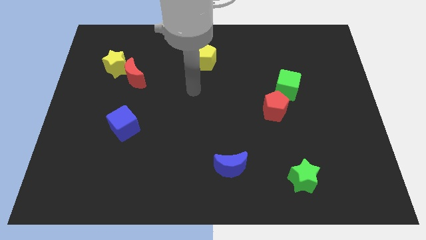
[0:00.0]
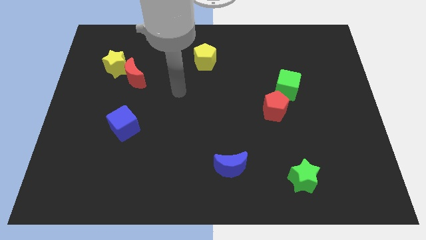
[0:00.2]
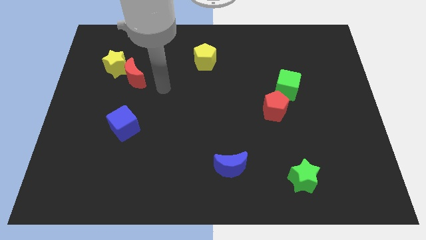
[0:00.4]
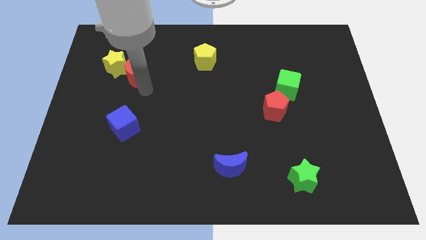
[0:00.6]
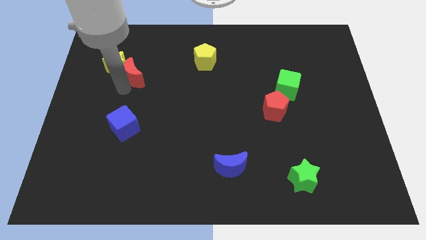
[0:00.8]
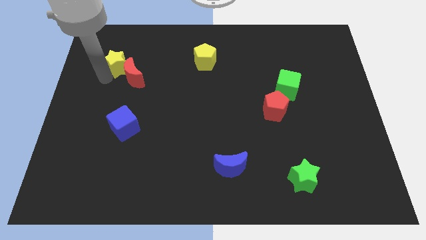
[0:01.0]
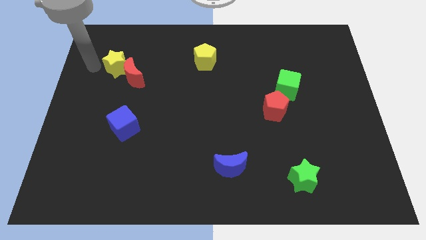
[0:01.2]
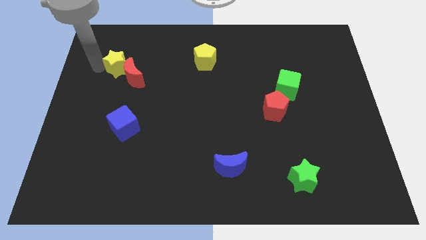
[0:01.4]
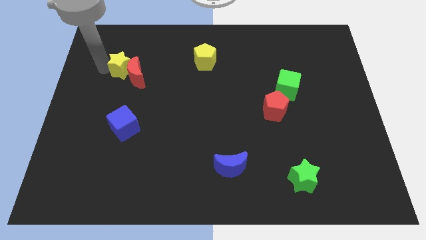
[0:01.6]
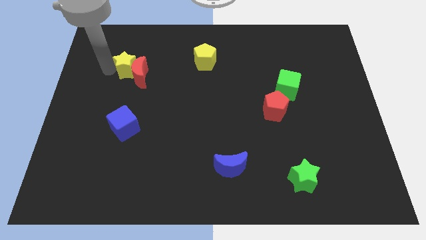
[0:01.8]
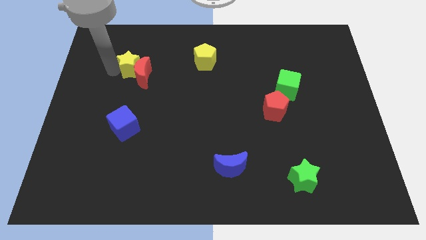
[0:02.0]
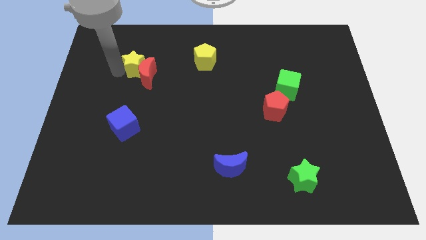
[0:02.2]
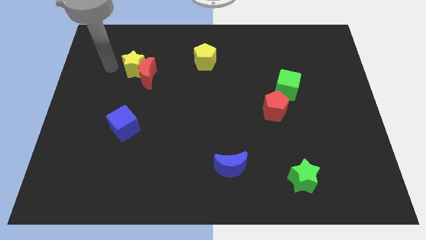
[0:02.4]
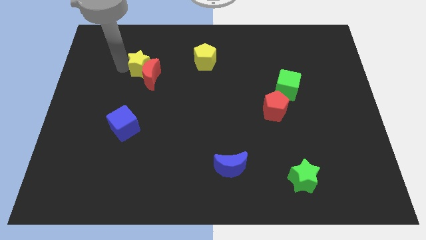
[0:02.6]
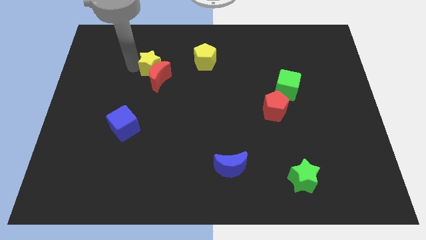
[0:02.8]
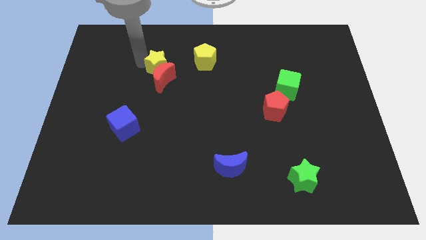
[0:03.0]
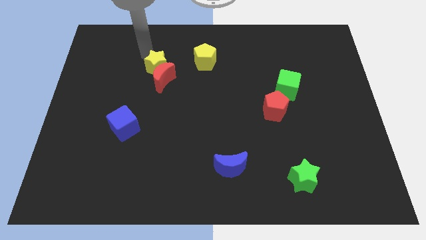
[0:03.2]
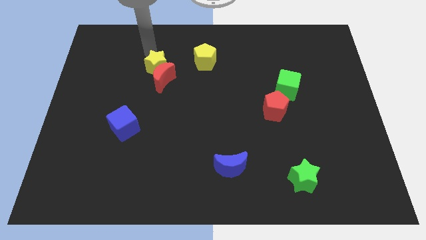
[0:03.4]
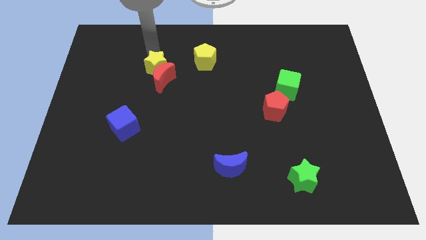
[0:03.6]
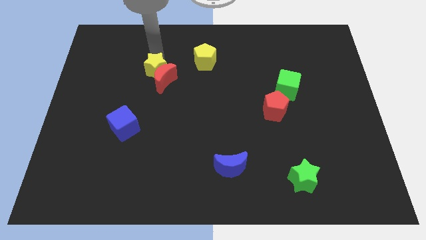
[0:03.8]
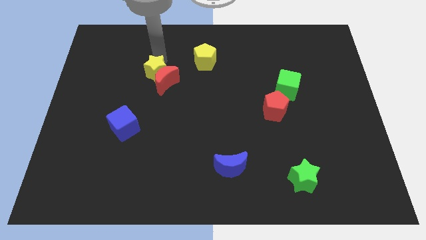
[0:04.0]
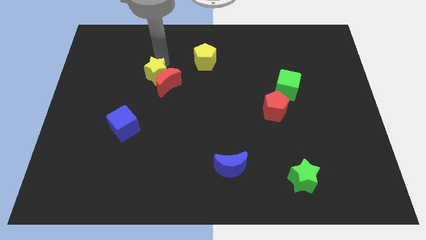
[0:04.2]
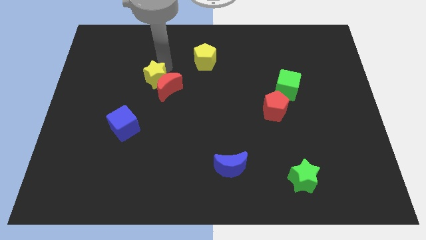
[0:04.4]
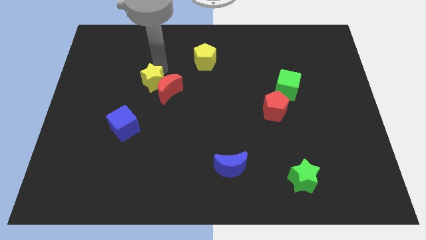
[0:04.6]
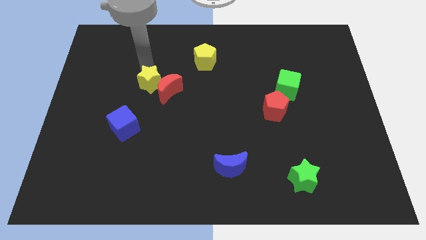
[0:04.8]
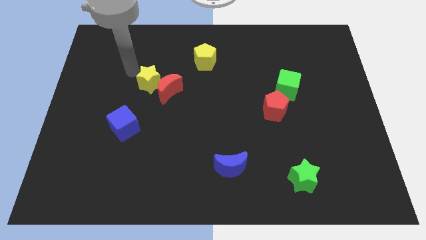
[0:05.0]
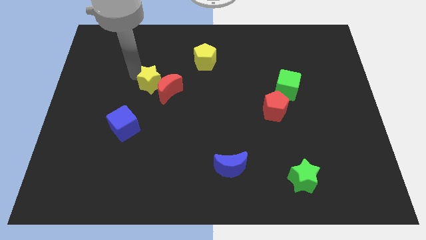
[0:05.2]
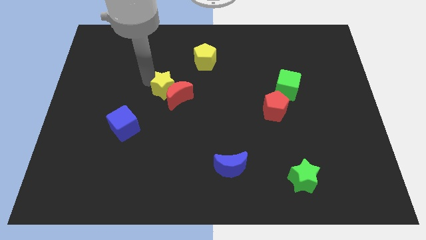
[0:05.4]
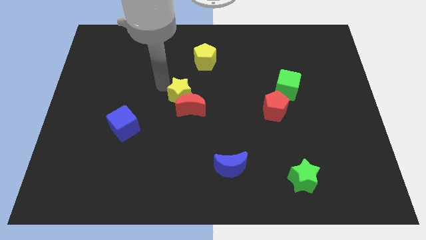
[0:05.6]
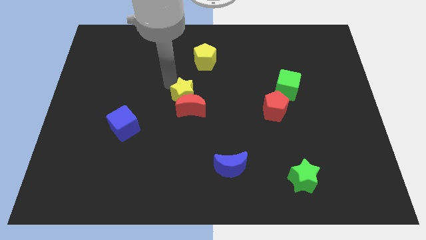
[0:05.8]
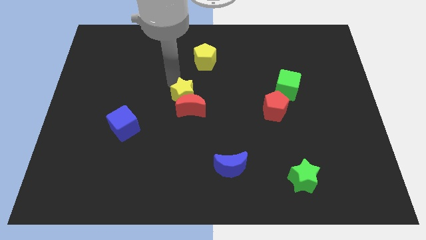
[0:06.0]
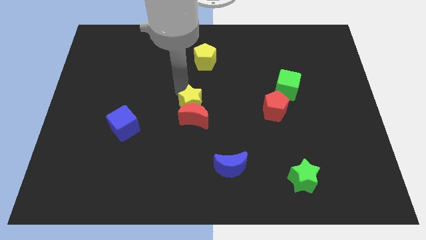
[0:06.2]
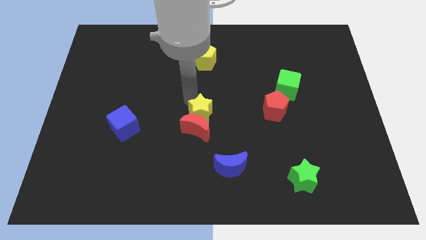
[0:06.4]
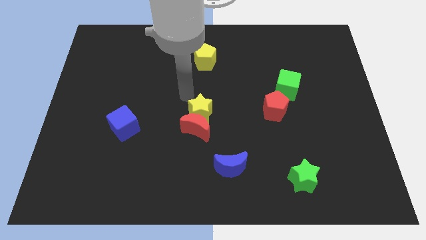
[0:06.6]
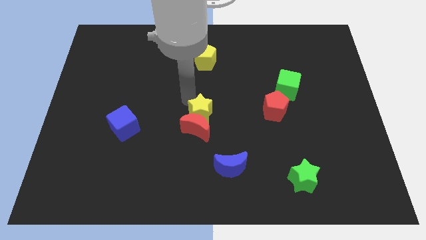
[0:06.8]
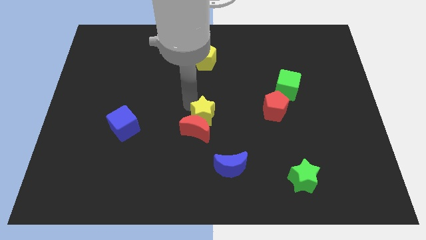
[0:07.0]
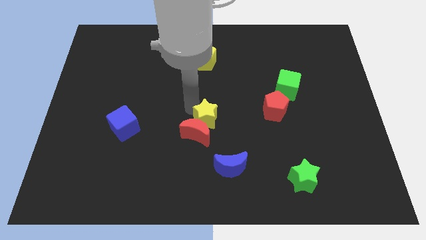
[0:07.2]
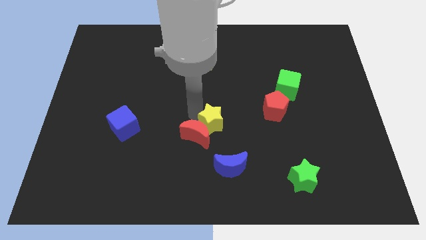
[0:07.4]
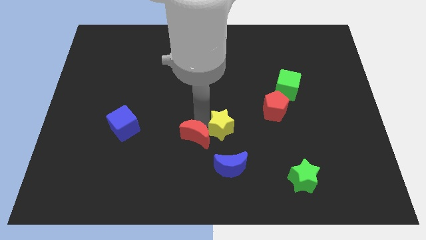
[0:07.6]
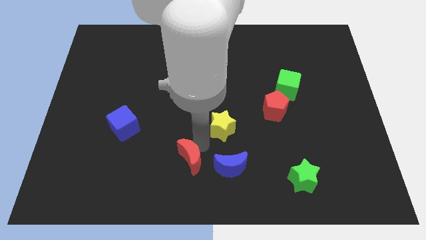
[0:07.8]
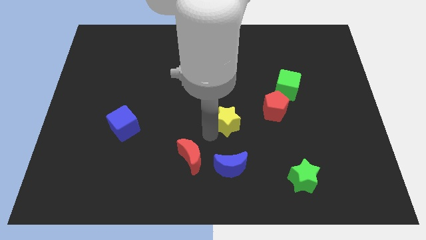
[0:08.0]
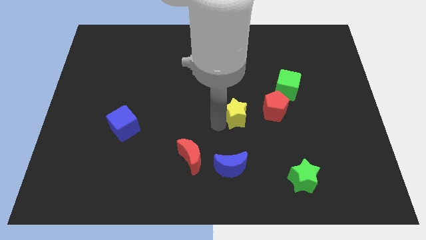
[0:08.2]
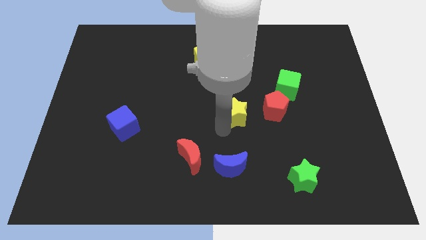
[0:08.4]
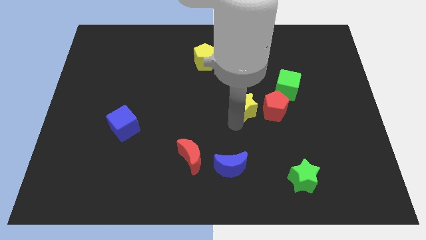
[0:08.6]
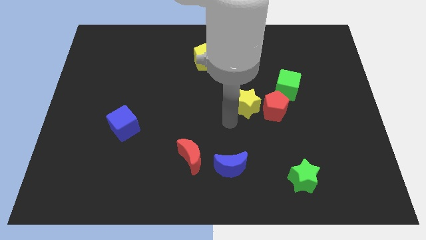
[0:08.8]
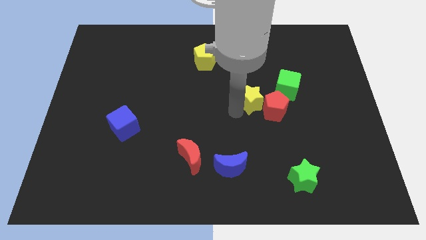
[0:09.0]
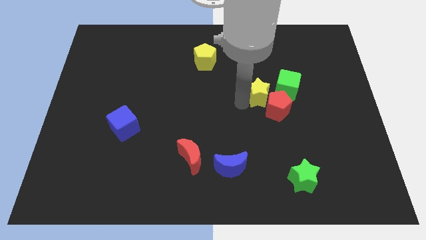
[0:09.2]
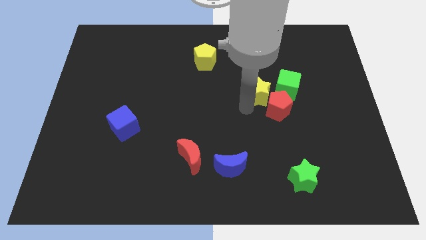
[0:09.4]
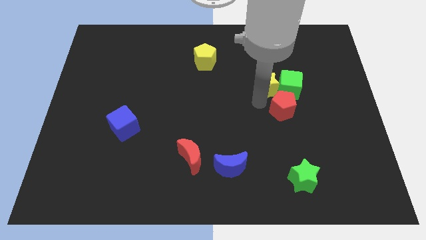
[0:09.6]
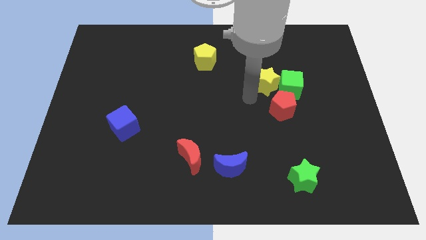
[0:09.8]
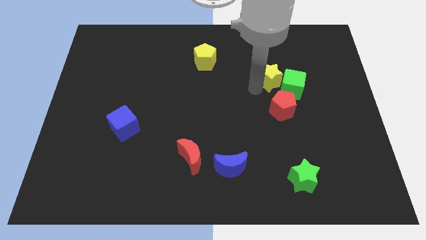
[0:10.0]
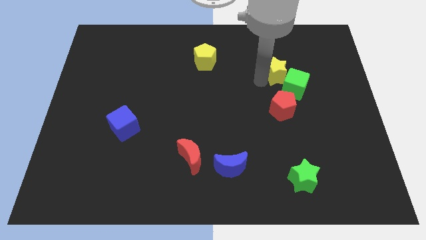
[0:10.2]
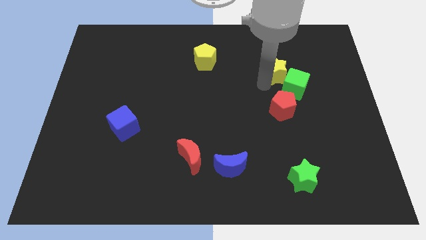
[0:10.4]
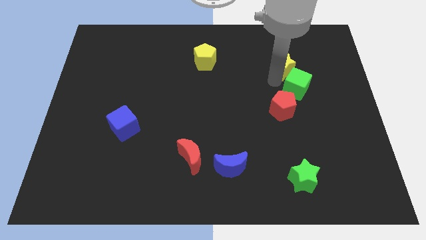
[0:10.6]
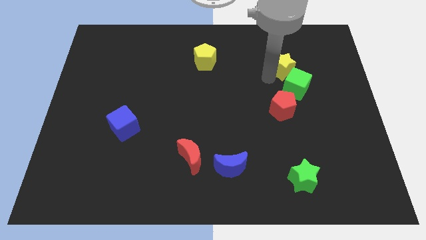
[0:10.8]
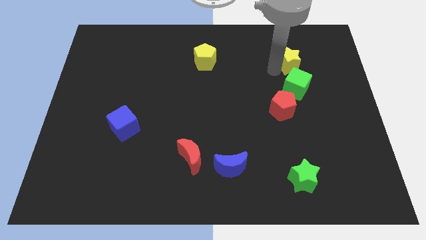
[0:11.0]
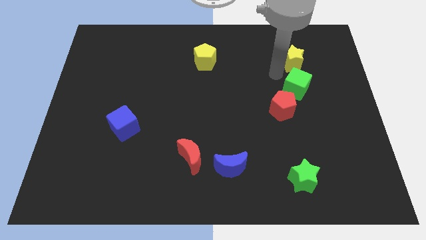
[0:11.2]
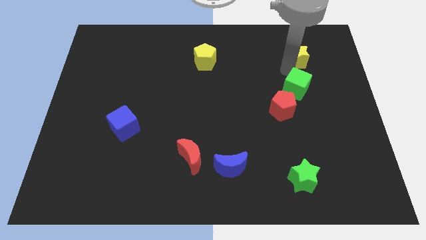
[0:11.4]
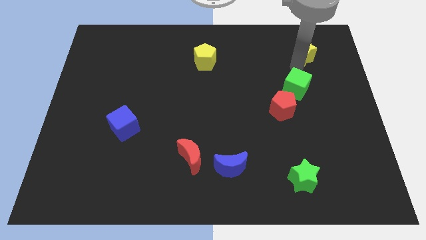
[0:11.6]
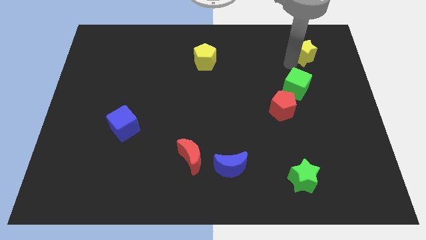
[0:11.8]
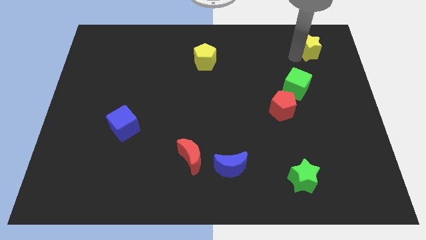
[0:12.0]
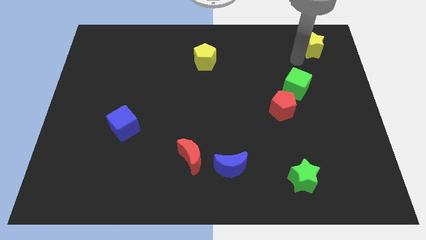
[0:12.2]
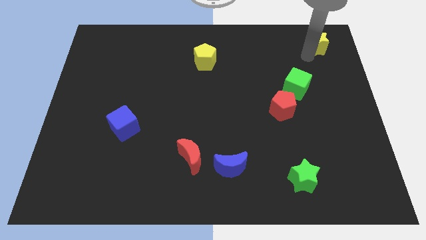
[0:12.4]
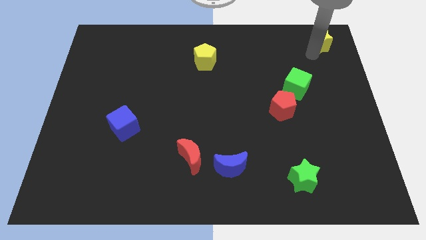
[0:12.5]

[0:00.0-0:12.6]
put the yellow star to the top right
